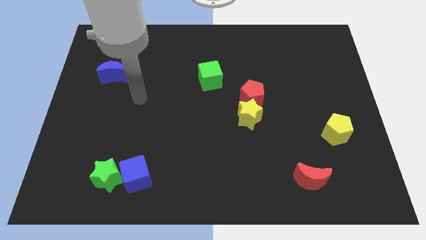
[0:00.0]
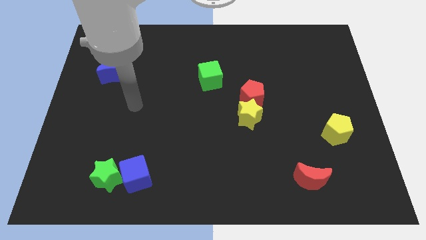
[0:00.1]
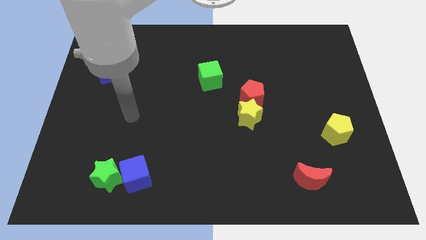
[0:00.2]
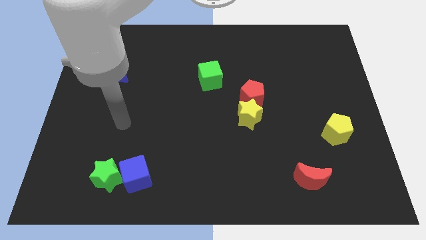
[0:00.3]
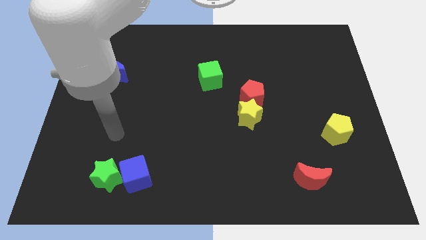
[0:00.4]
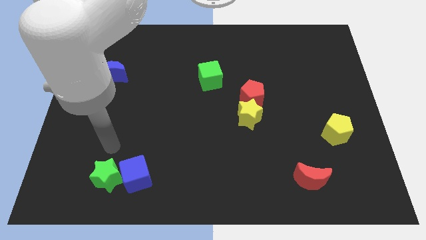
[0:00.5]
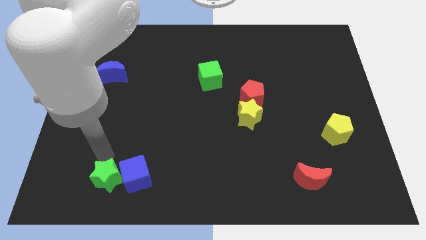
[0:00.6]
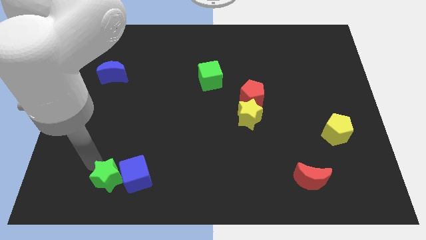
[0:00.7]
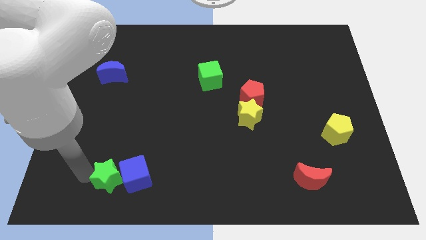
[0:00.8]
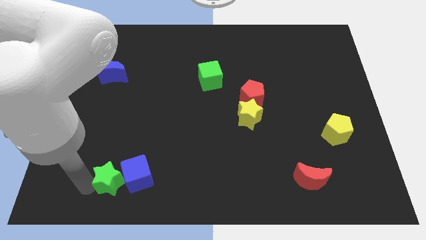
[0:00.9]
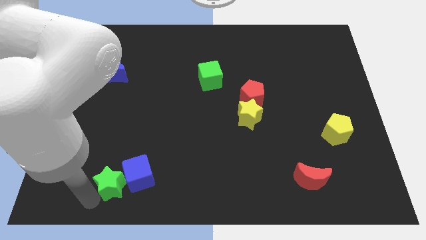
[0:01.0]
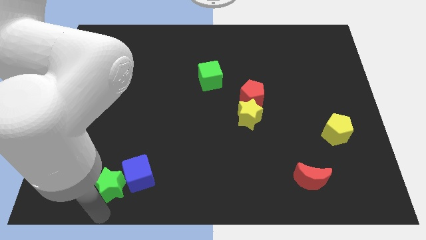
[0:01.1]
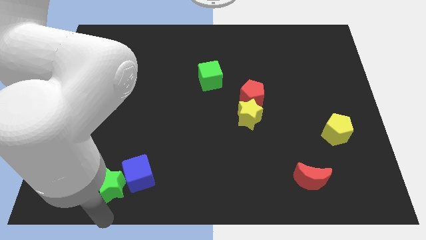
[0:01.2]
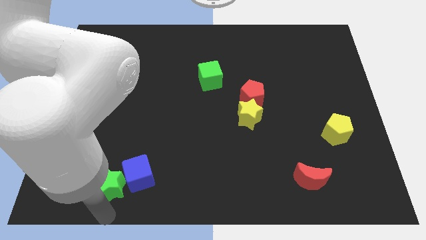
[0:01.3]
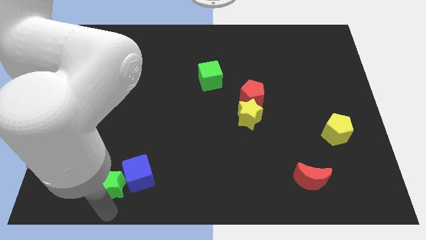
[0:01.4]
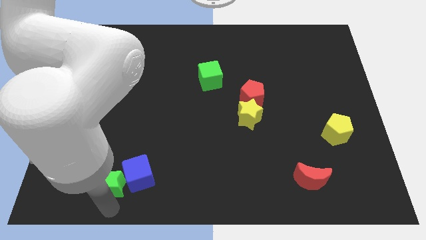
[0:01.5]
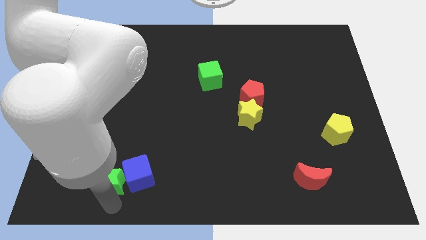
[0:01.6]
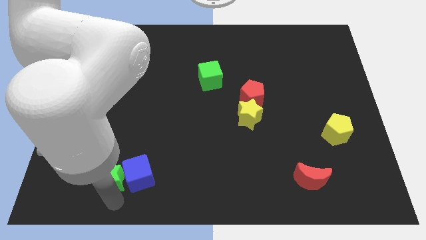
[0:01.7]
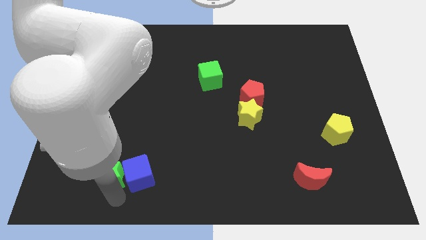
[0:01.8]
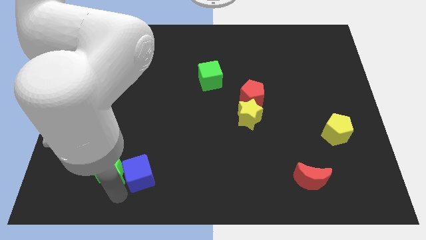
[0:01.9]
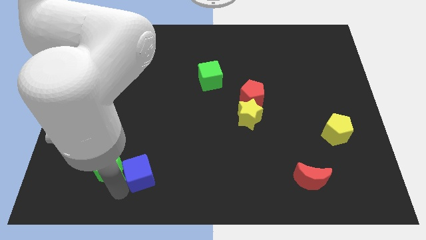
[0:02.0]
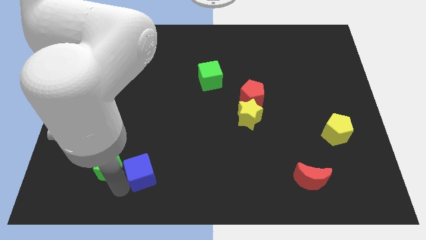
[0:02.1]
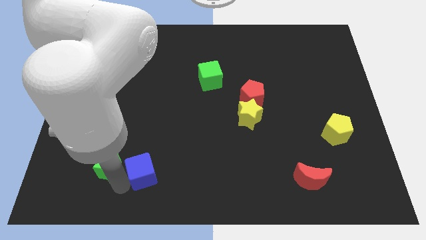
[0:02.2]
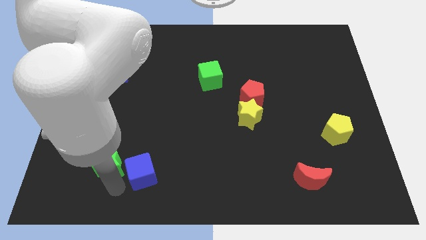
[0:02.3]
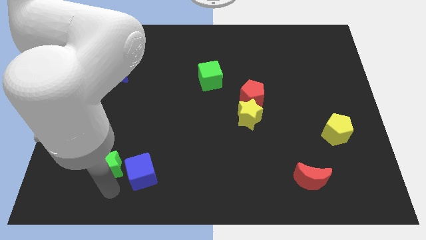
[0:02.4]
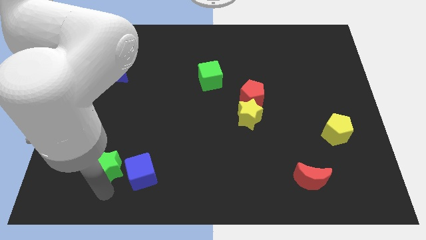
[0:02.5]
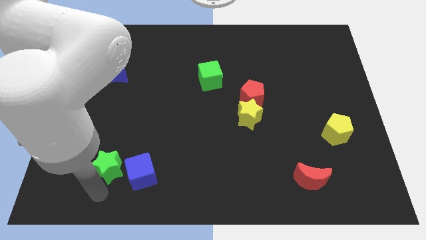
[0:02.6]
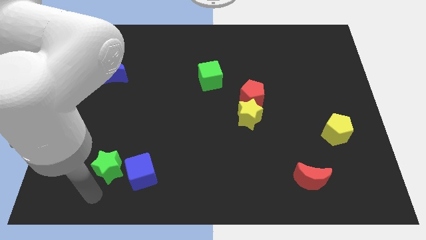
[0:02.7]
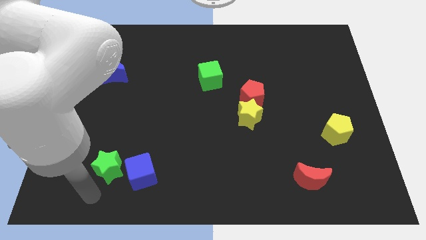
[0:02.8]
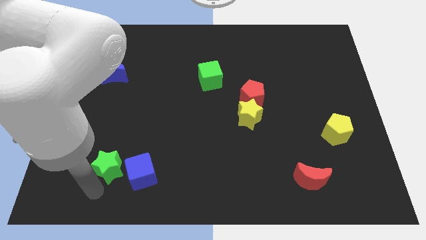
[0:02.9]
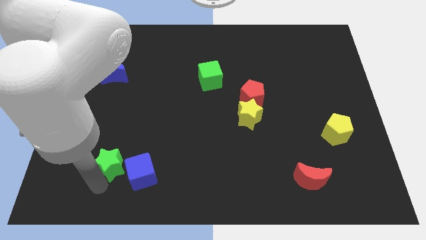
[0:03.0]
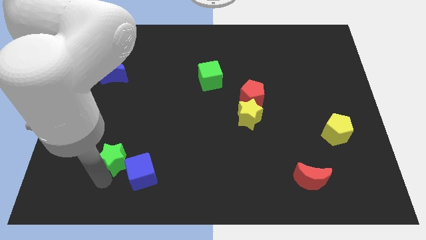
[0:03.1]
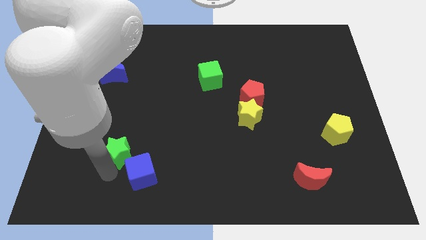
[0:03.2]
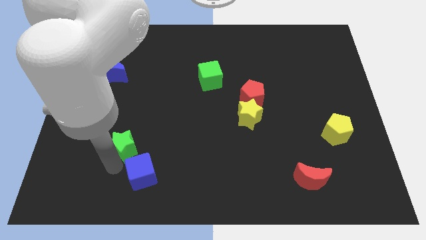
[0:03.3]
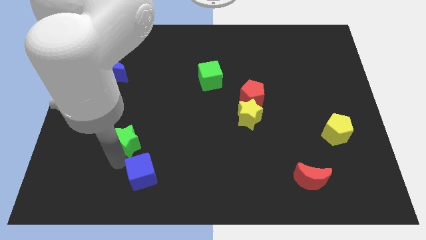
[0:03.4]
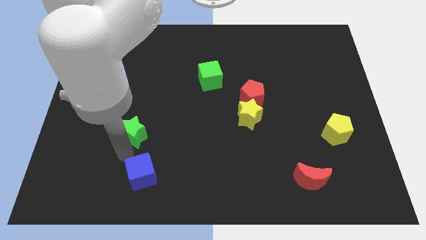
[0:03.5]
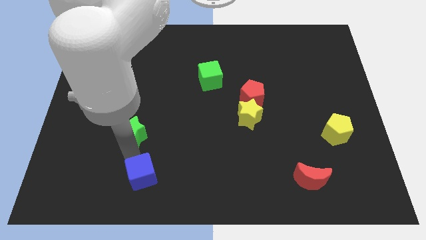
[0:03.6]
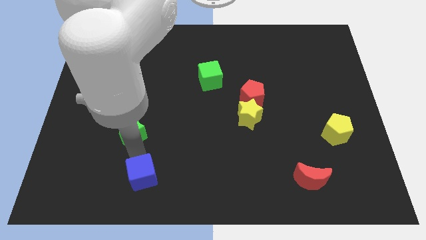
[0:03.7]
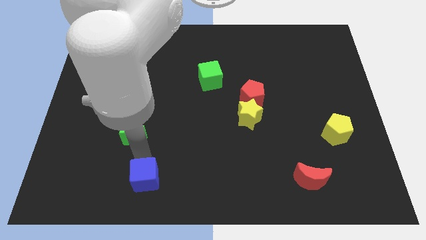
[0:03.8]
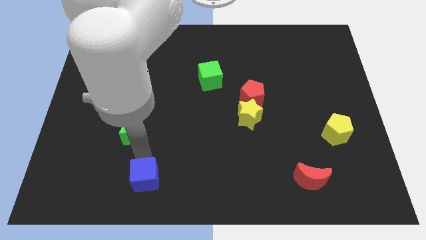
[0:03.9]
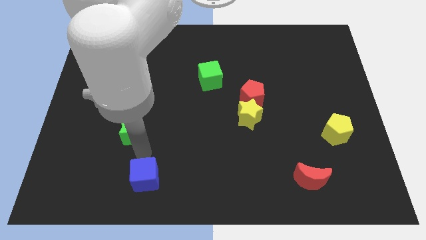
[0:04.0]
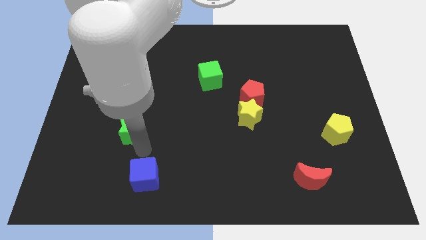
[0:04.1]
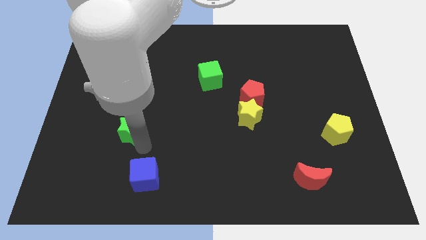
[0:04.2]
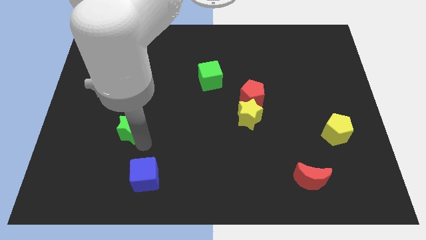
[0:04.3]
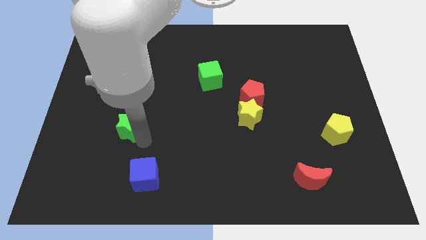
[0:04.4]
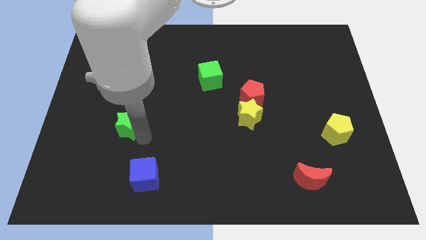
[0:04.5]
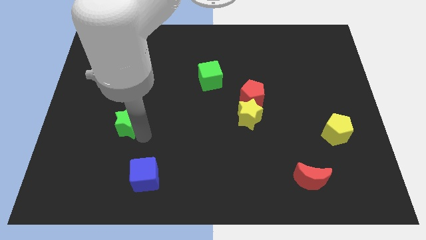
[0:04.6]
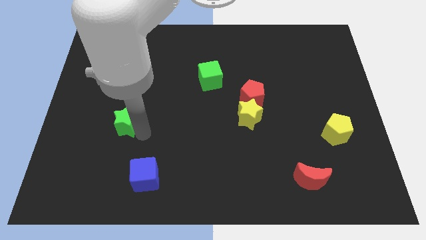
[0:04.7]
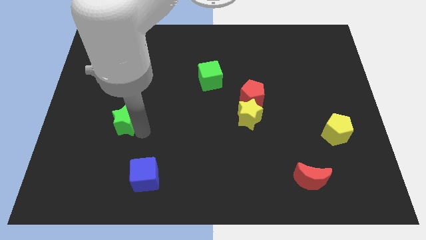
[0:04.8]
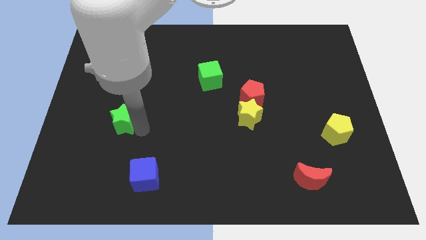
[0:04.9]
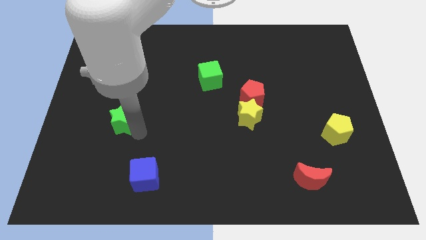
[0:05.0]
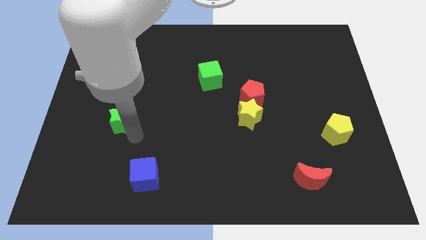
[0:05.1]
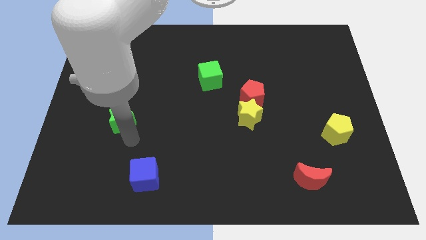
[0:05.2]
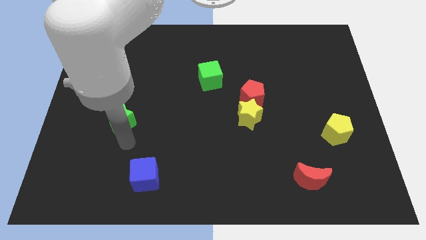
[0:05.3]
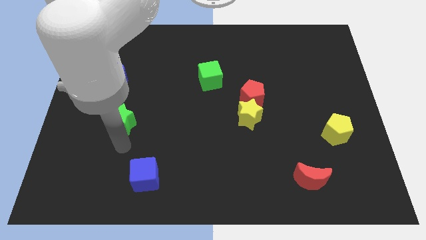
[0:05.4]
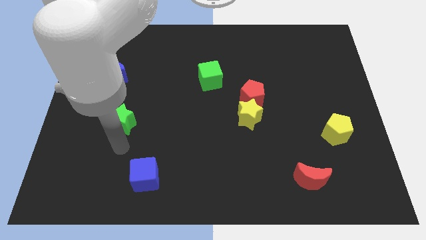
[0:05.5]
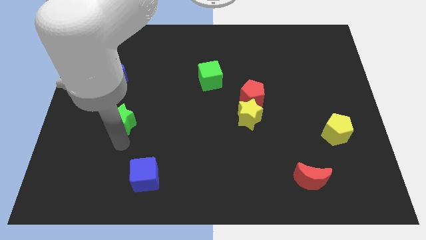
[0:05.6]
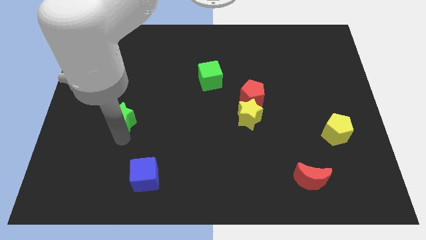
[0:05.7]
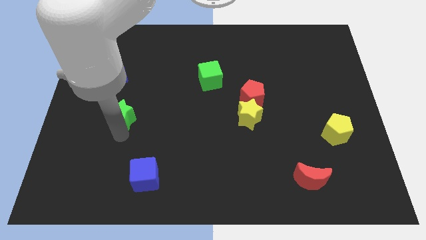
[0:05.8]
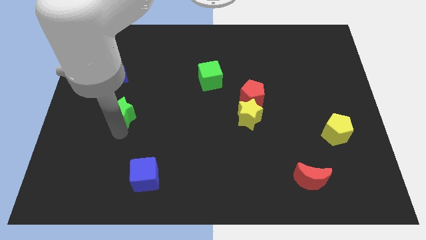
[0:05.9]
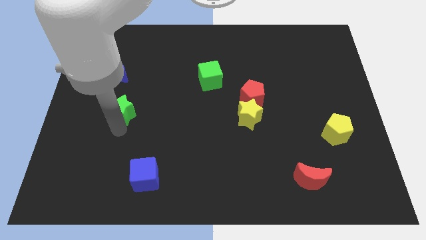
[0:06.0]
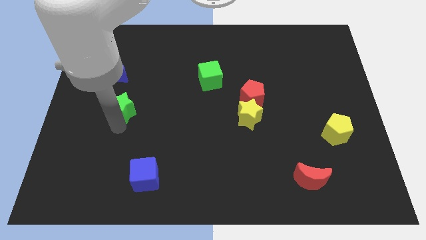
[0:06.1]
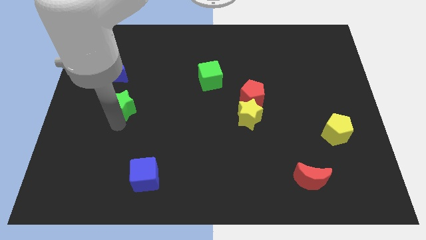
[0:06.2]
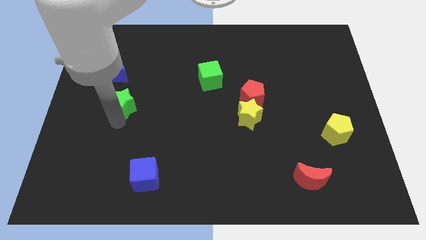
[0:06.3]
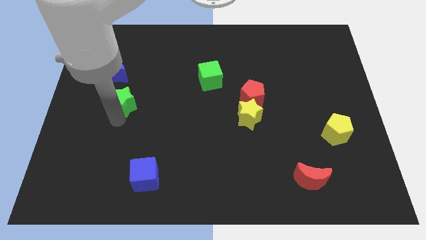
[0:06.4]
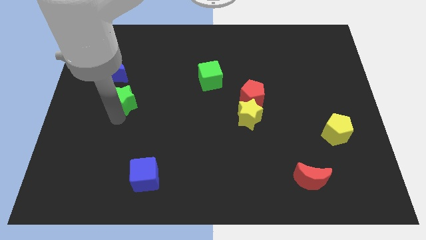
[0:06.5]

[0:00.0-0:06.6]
slide the green star up

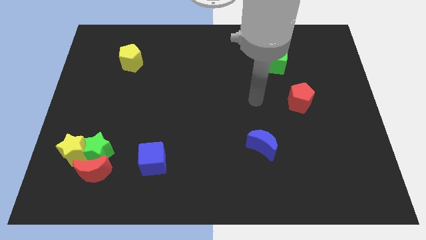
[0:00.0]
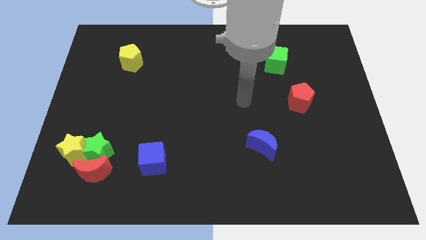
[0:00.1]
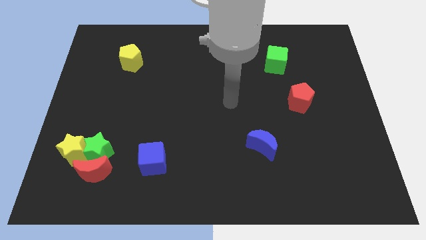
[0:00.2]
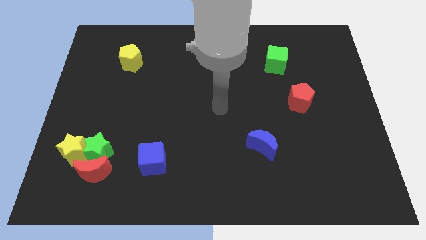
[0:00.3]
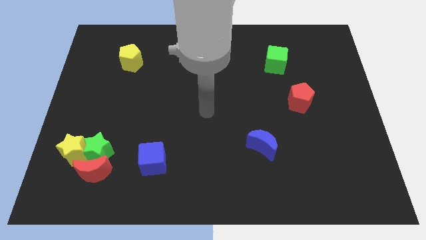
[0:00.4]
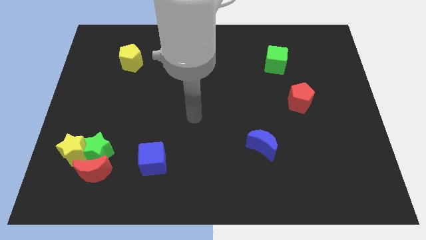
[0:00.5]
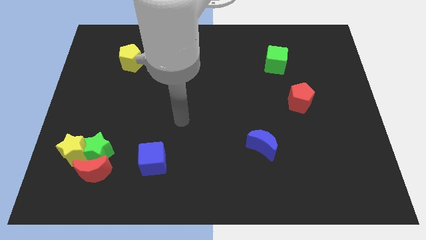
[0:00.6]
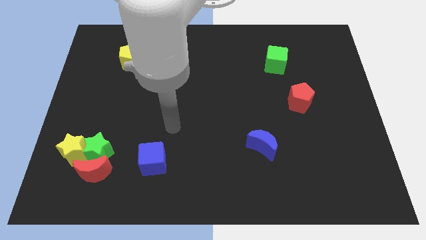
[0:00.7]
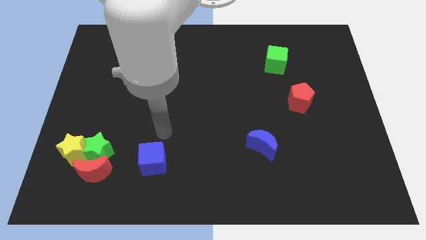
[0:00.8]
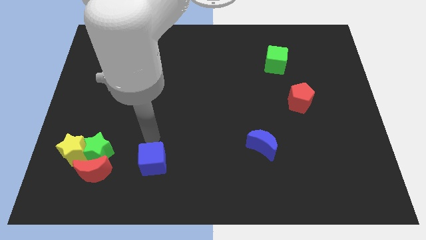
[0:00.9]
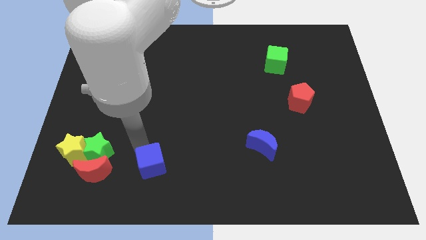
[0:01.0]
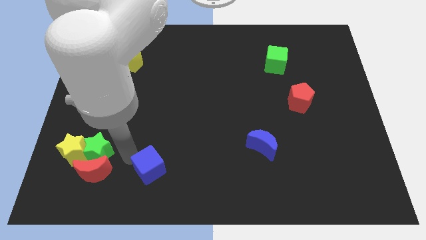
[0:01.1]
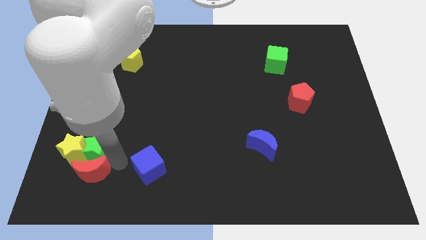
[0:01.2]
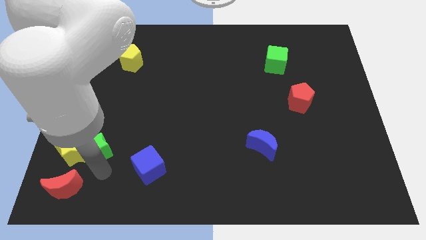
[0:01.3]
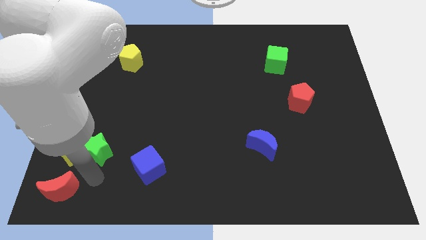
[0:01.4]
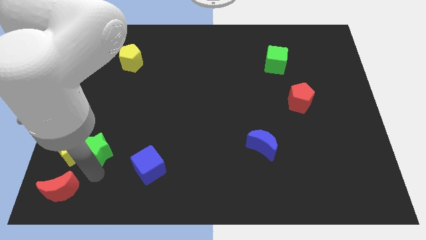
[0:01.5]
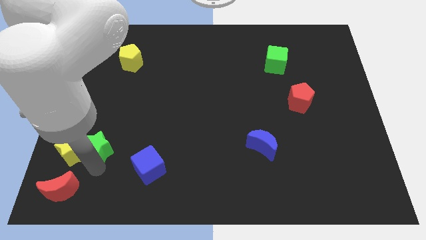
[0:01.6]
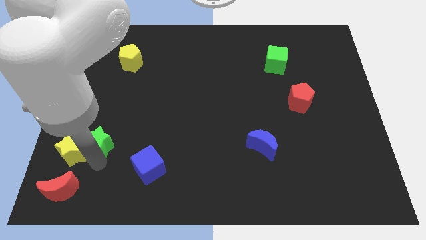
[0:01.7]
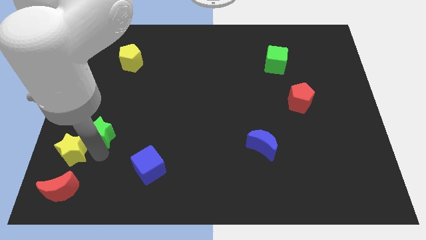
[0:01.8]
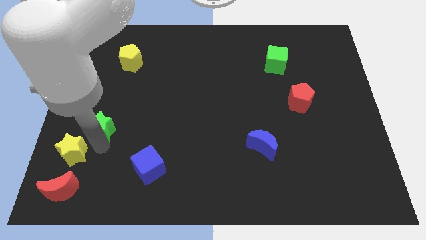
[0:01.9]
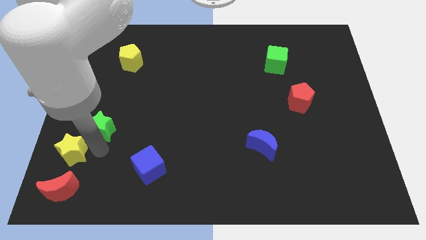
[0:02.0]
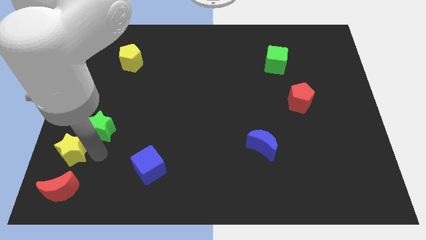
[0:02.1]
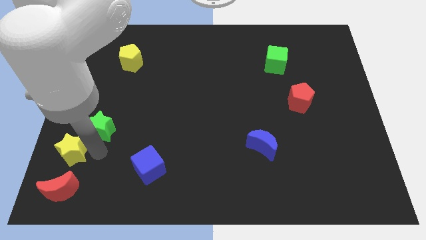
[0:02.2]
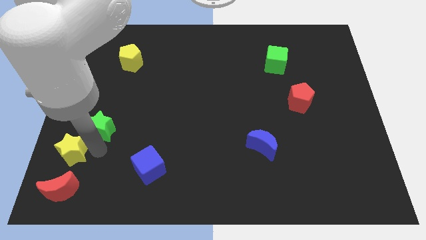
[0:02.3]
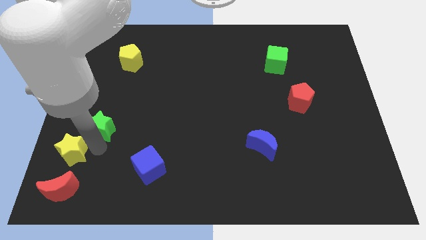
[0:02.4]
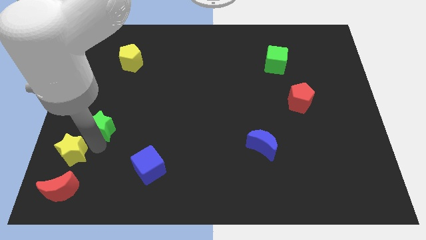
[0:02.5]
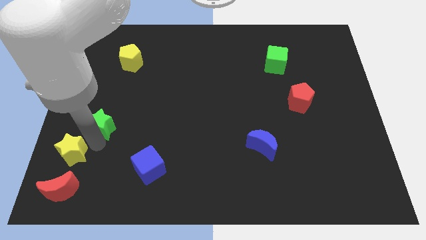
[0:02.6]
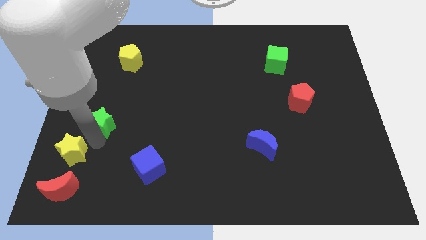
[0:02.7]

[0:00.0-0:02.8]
push the green star a bit up
